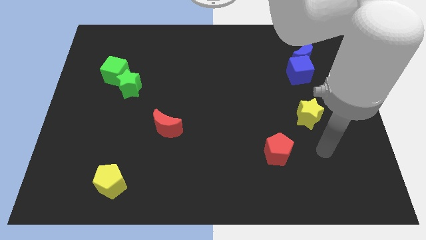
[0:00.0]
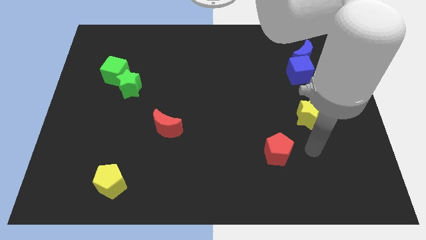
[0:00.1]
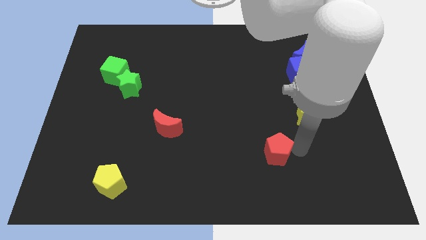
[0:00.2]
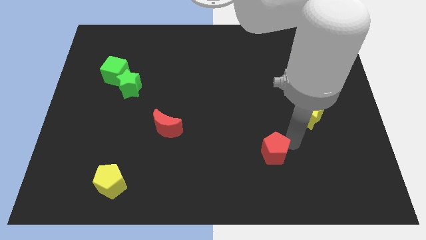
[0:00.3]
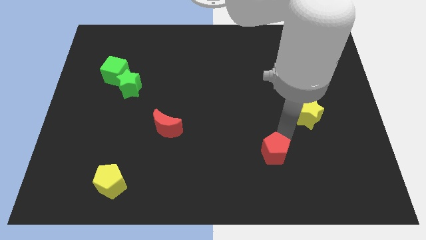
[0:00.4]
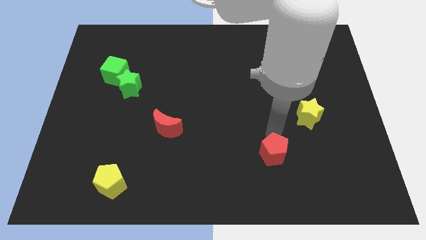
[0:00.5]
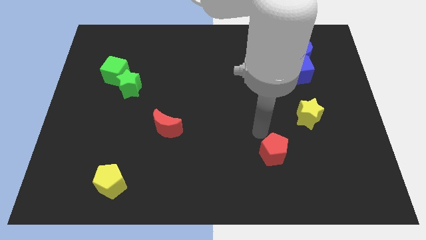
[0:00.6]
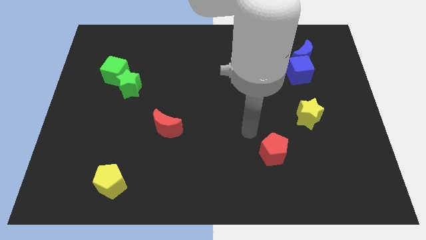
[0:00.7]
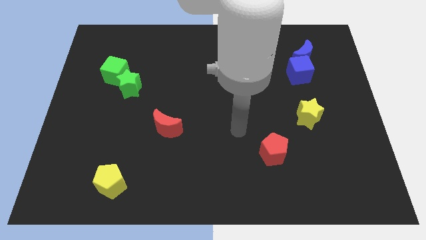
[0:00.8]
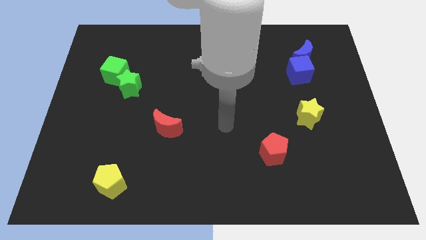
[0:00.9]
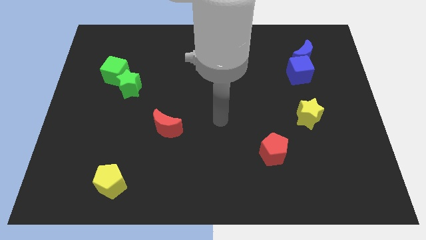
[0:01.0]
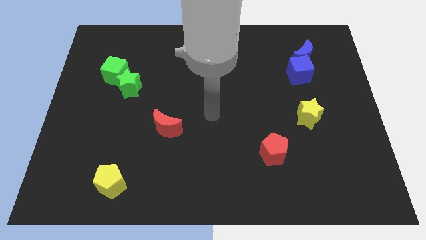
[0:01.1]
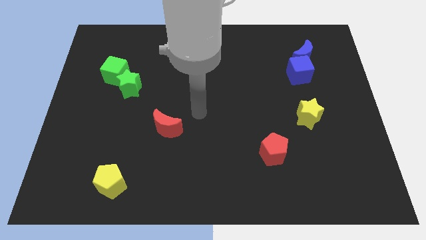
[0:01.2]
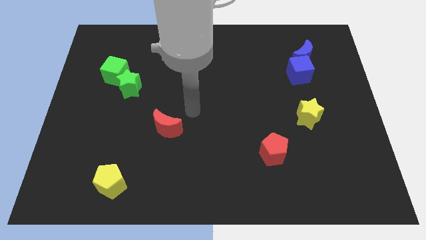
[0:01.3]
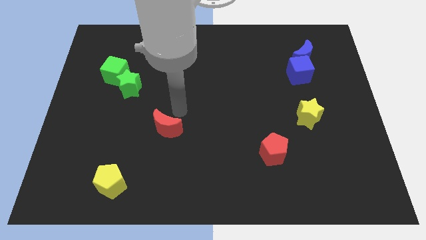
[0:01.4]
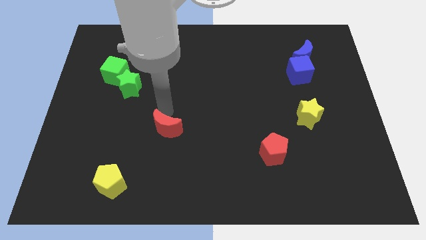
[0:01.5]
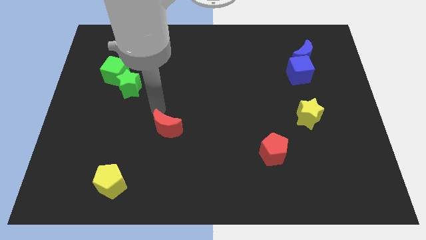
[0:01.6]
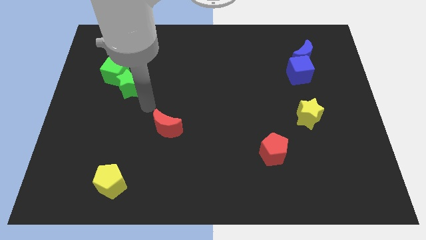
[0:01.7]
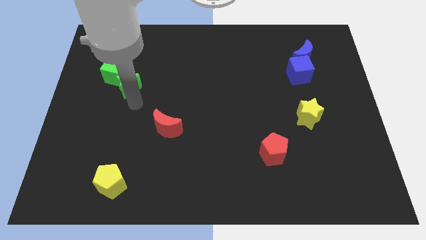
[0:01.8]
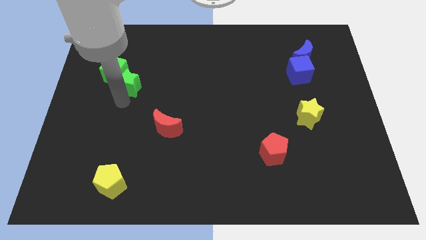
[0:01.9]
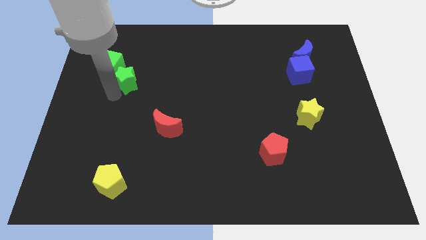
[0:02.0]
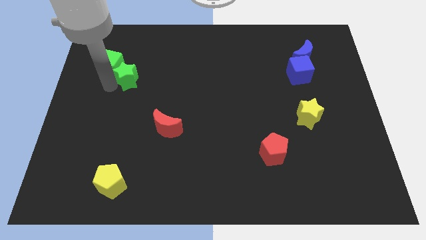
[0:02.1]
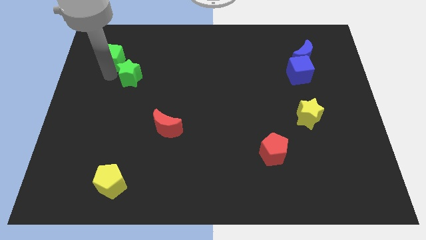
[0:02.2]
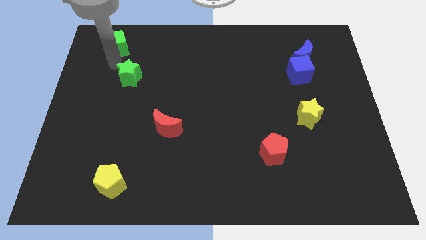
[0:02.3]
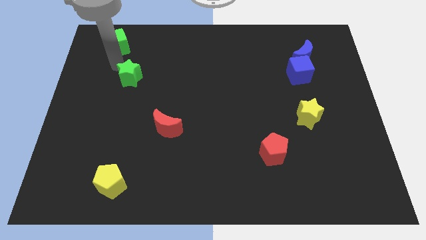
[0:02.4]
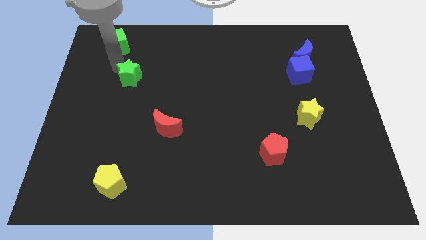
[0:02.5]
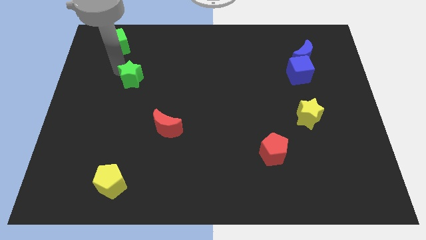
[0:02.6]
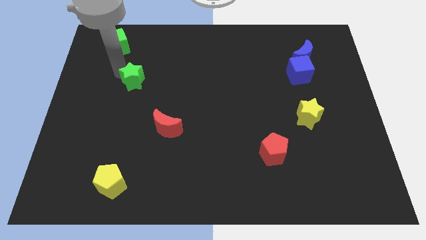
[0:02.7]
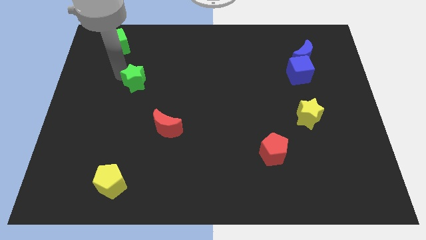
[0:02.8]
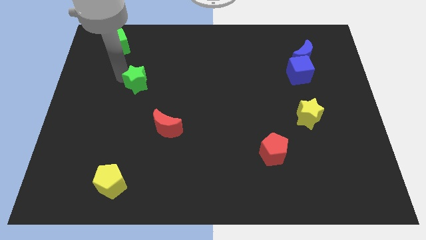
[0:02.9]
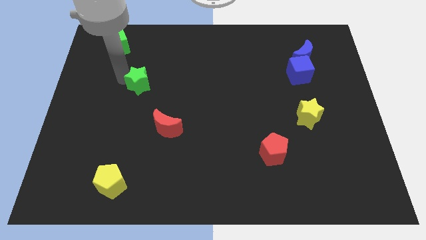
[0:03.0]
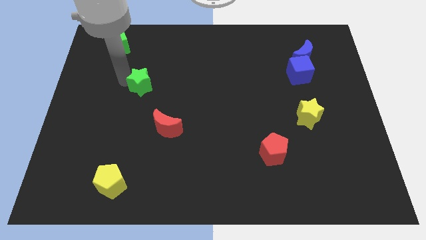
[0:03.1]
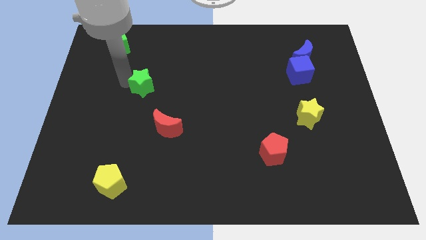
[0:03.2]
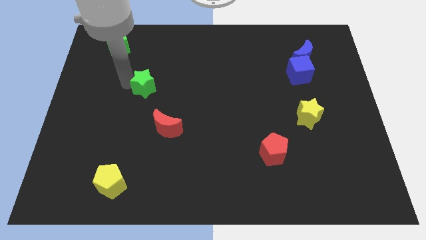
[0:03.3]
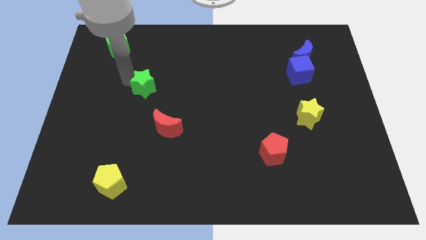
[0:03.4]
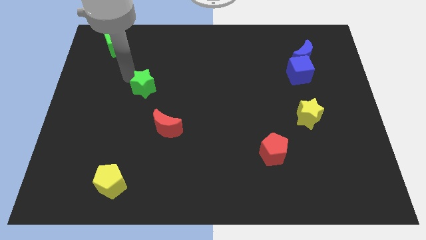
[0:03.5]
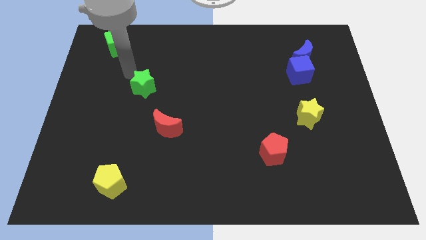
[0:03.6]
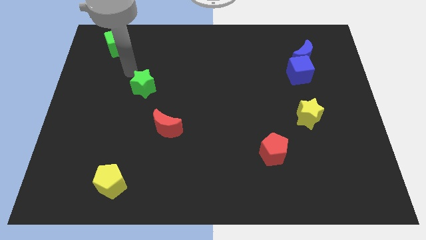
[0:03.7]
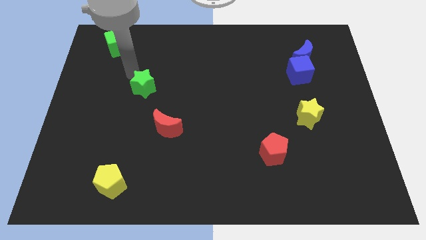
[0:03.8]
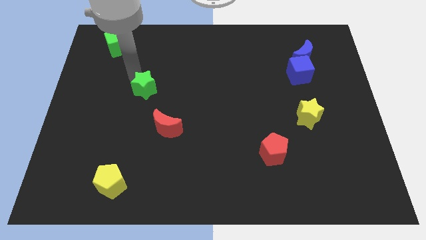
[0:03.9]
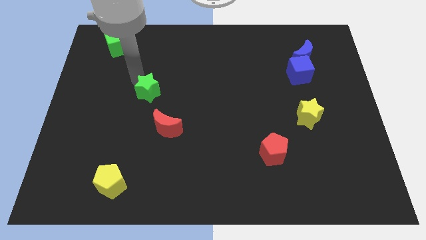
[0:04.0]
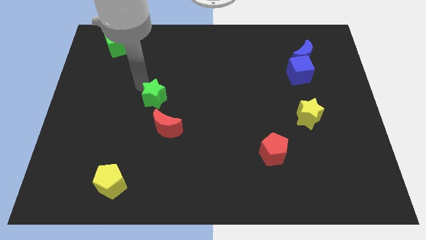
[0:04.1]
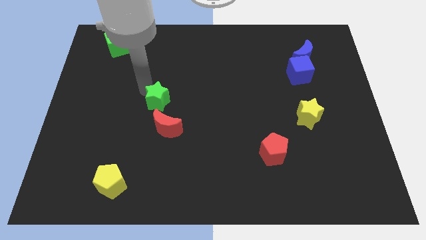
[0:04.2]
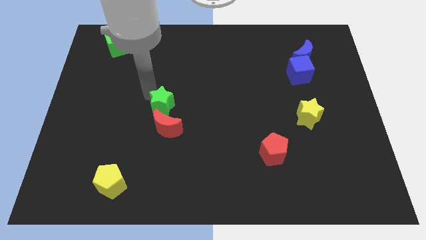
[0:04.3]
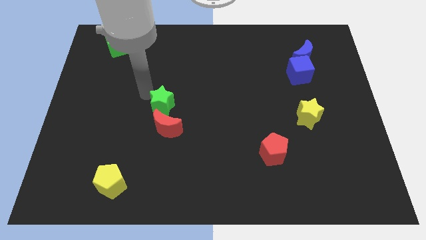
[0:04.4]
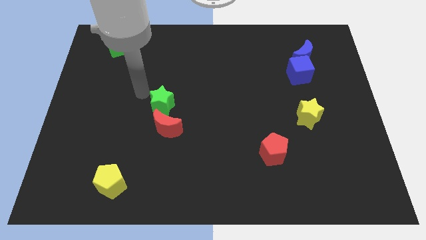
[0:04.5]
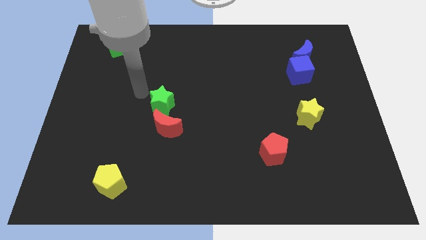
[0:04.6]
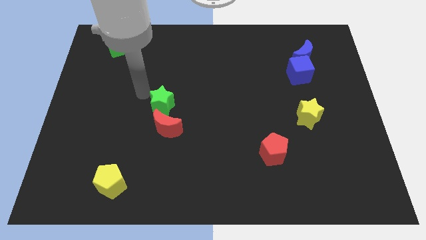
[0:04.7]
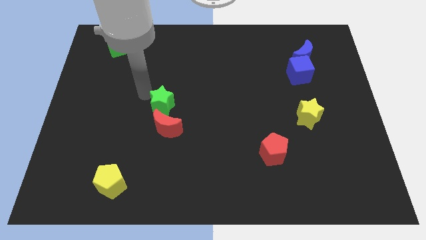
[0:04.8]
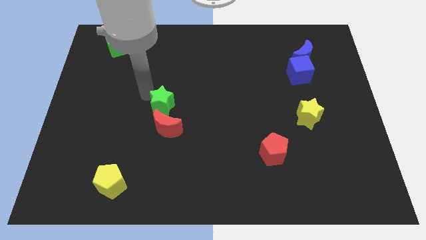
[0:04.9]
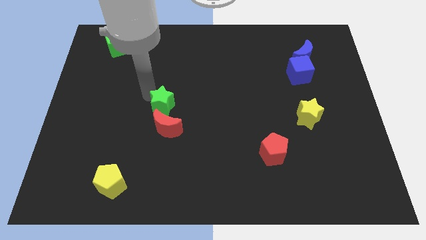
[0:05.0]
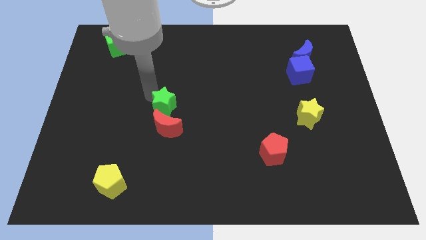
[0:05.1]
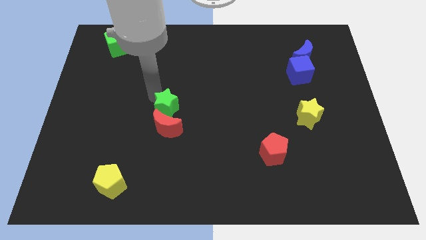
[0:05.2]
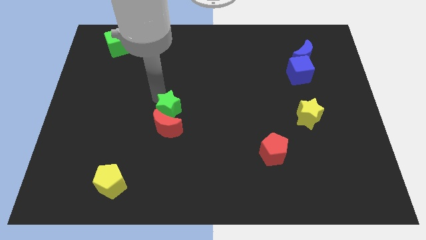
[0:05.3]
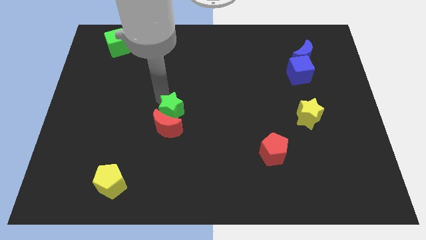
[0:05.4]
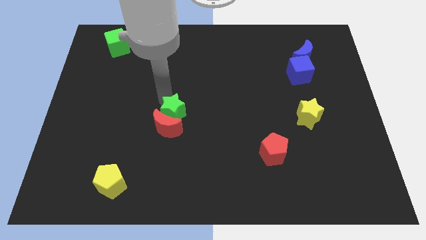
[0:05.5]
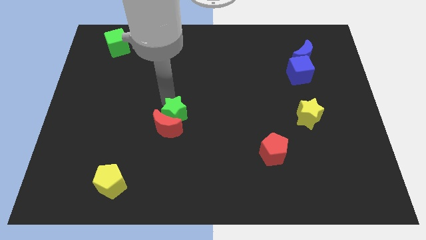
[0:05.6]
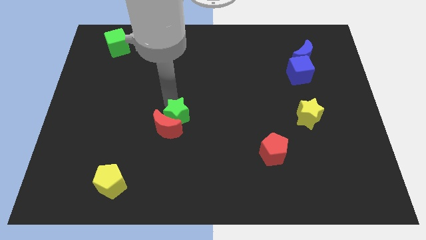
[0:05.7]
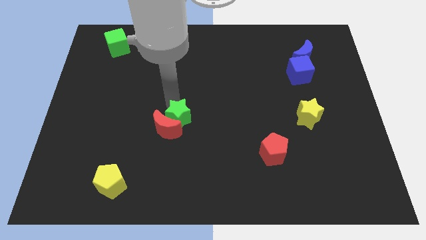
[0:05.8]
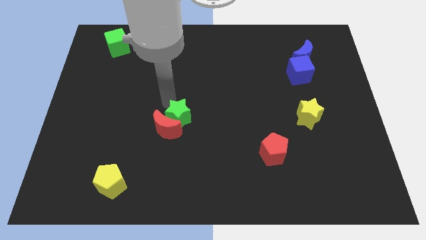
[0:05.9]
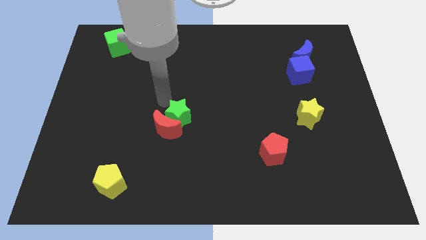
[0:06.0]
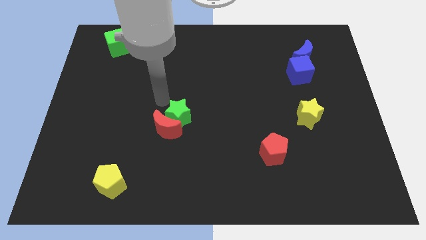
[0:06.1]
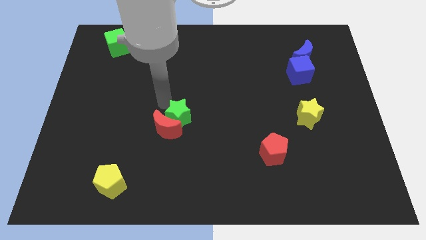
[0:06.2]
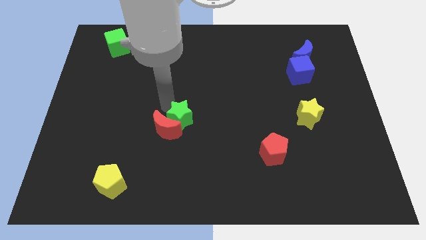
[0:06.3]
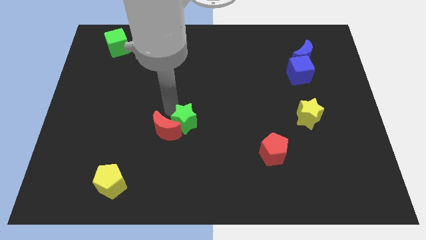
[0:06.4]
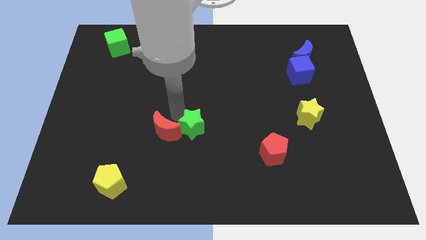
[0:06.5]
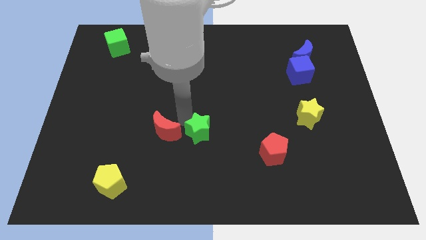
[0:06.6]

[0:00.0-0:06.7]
slide the green star down and right

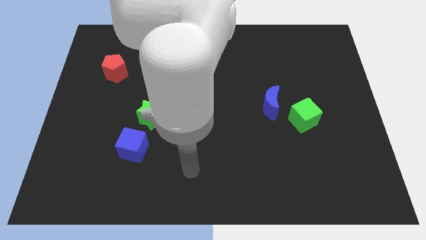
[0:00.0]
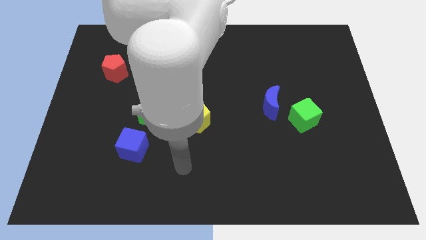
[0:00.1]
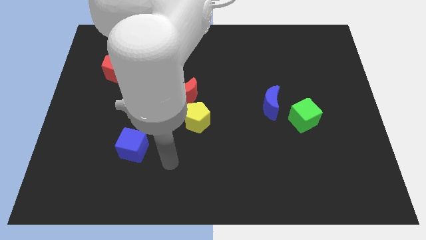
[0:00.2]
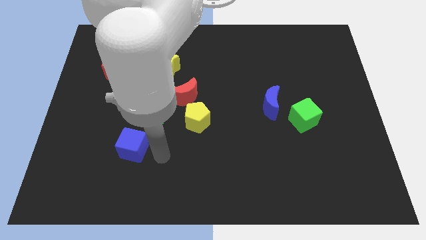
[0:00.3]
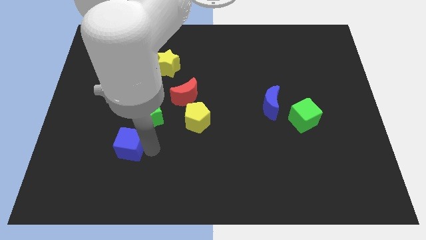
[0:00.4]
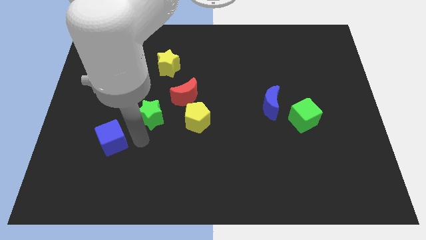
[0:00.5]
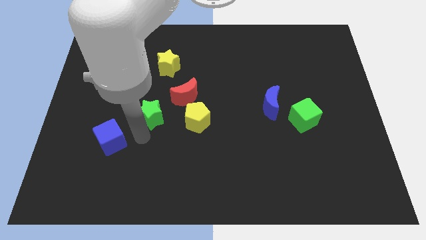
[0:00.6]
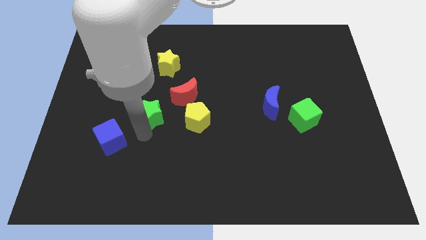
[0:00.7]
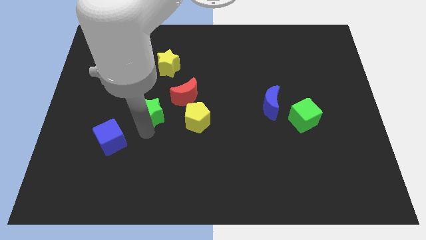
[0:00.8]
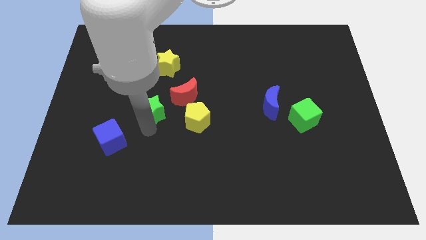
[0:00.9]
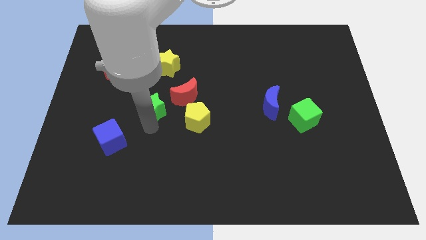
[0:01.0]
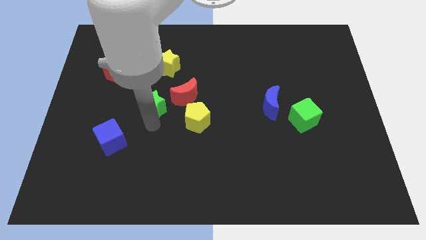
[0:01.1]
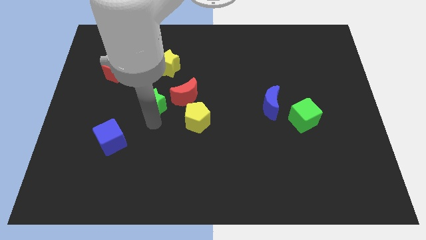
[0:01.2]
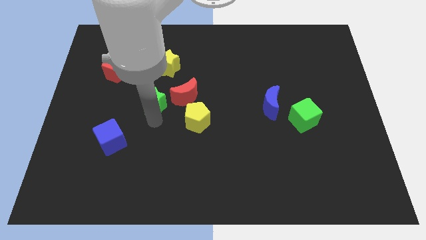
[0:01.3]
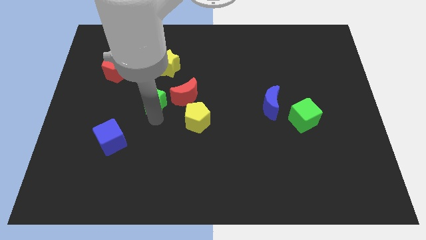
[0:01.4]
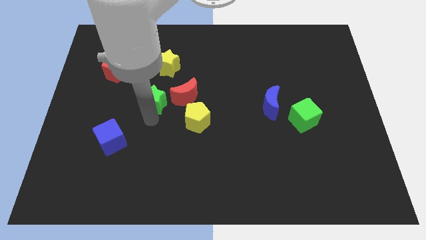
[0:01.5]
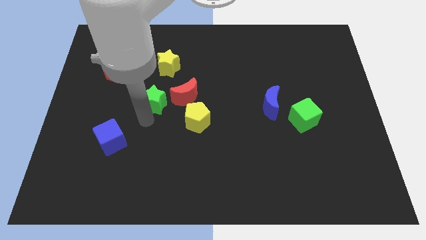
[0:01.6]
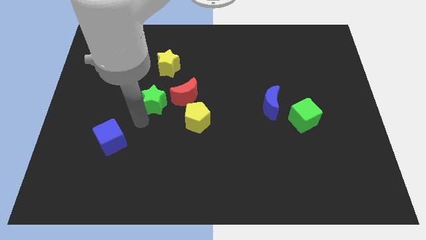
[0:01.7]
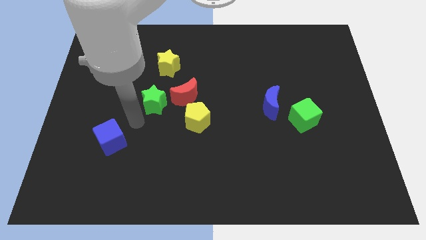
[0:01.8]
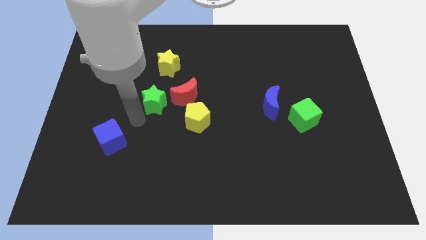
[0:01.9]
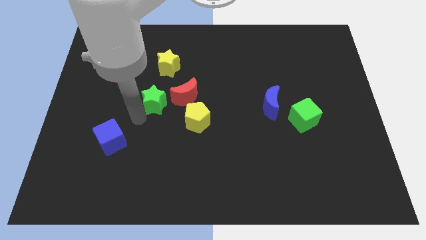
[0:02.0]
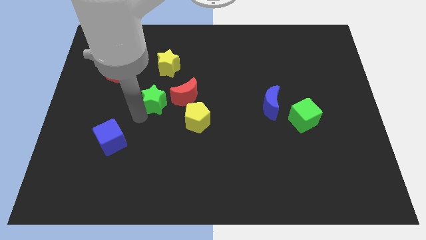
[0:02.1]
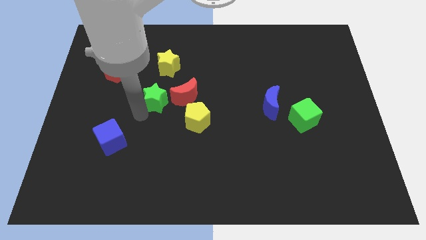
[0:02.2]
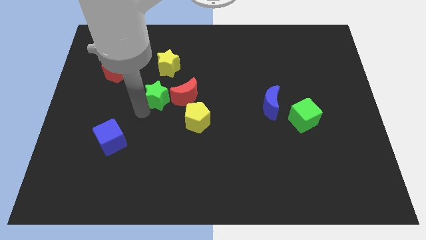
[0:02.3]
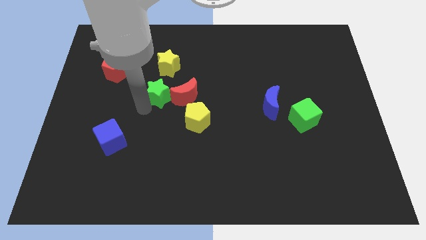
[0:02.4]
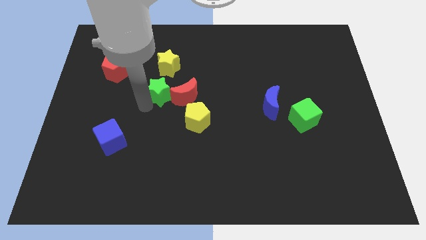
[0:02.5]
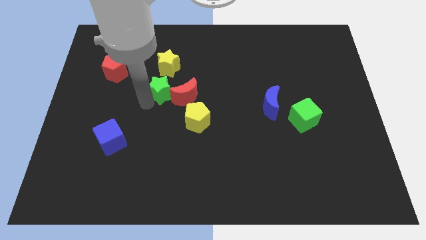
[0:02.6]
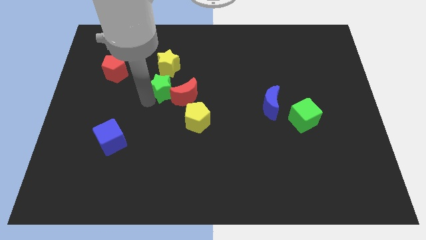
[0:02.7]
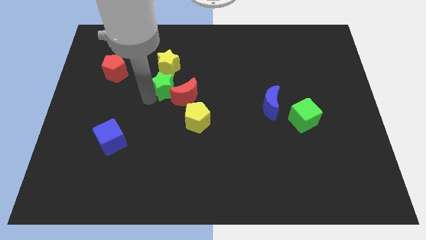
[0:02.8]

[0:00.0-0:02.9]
push the green star diagonally upwards and right a bit
